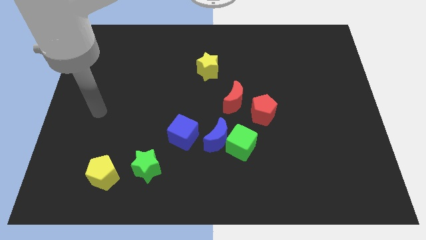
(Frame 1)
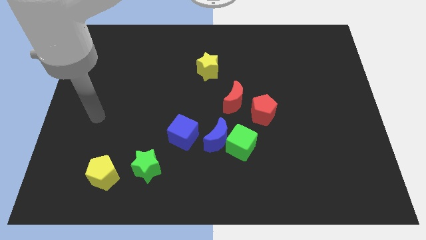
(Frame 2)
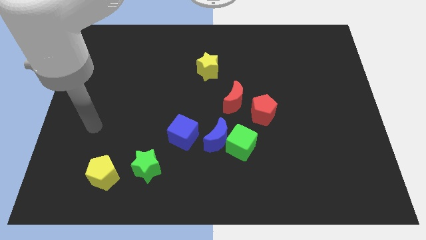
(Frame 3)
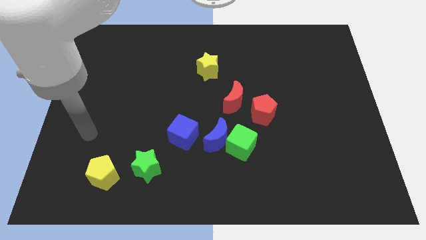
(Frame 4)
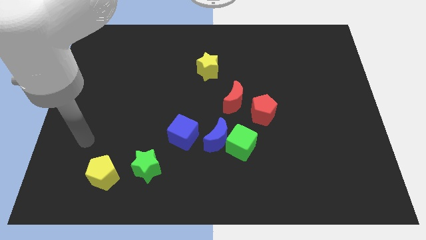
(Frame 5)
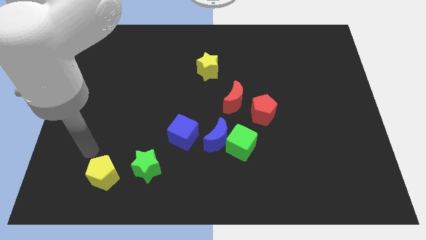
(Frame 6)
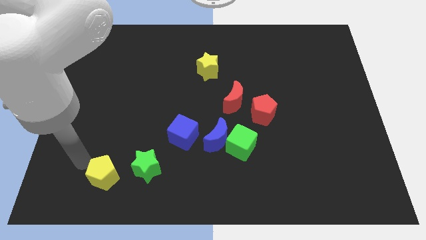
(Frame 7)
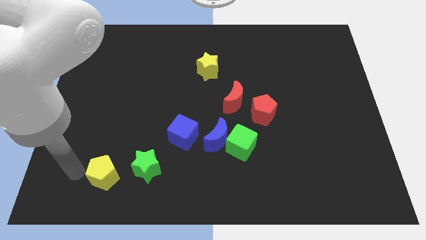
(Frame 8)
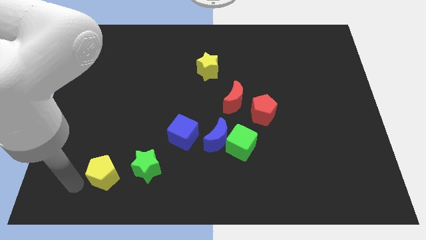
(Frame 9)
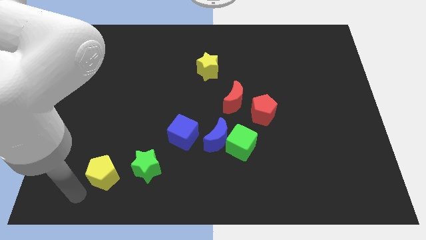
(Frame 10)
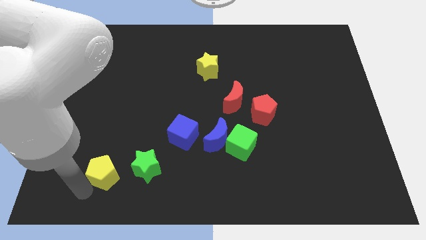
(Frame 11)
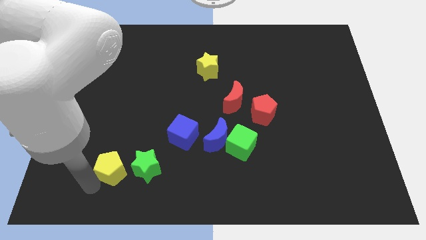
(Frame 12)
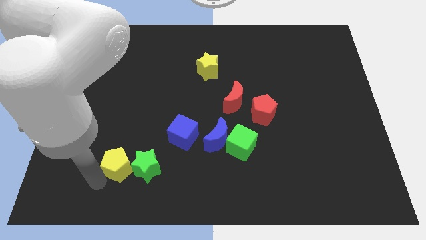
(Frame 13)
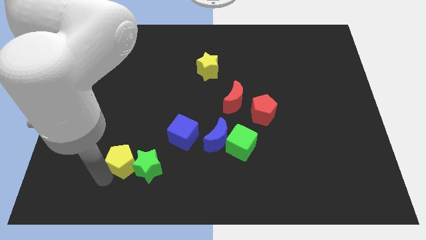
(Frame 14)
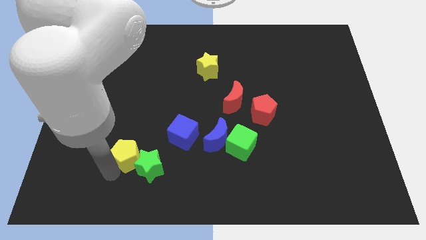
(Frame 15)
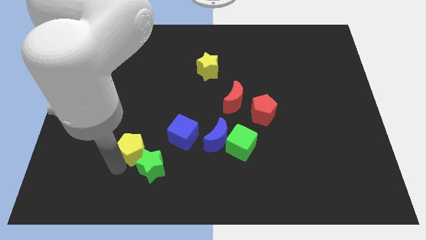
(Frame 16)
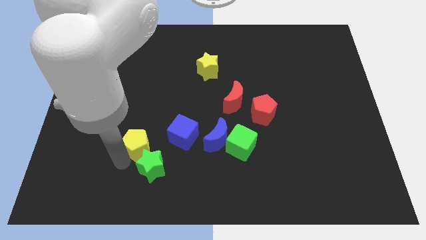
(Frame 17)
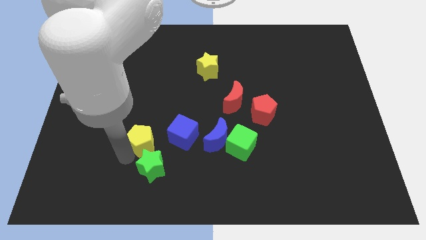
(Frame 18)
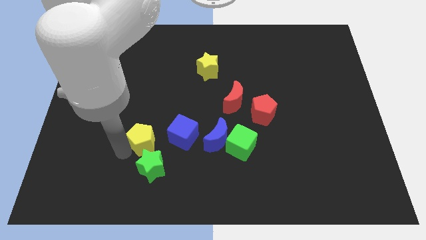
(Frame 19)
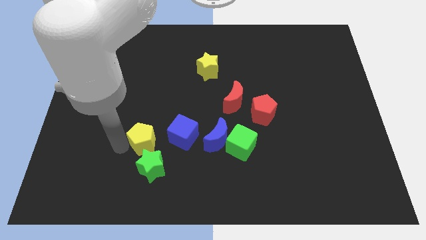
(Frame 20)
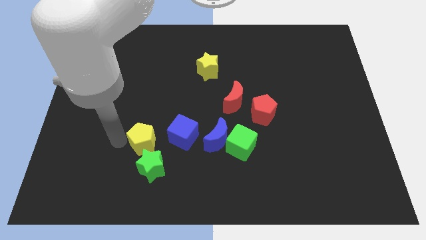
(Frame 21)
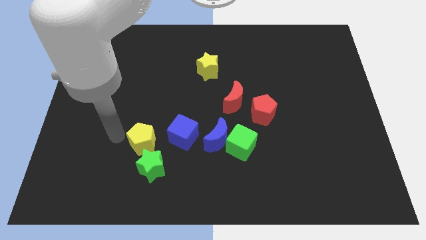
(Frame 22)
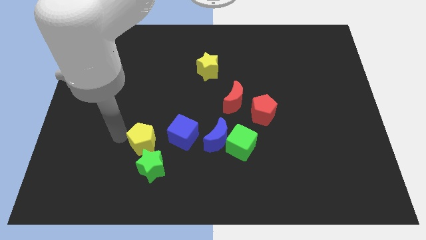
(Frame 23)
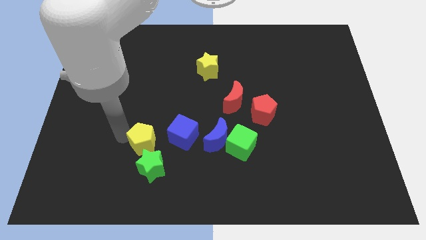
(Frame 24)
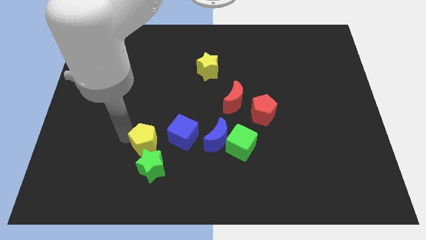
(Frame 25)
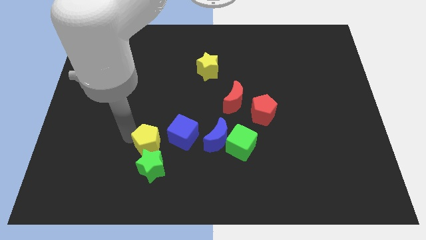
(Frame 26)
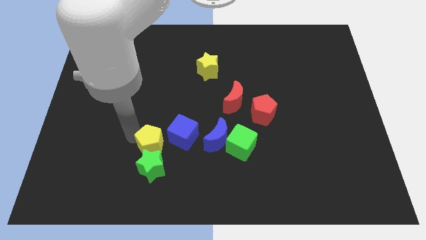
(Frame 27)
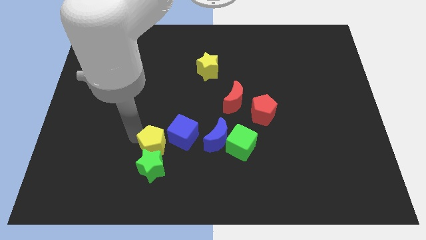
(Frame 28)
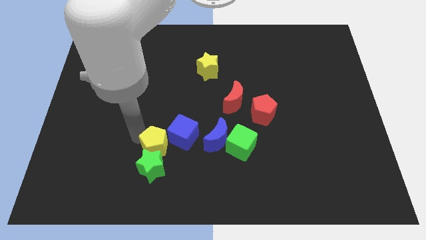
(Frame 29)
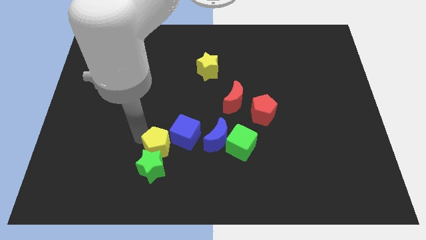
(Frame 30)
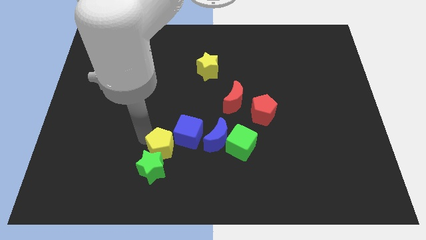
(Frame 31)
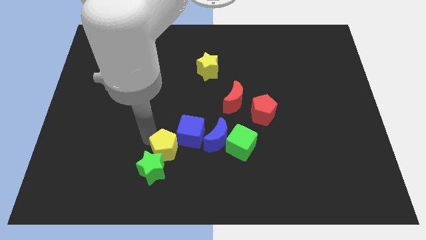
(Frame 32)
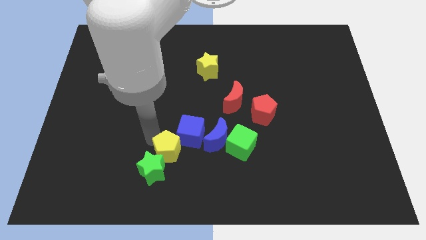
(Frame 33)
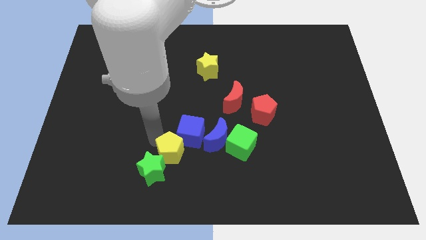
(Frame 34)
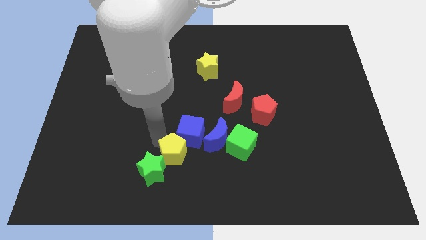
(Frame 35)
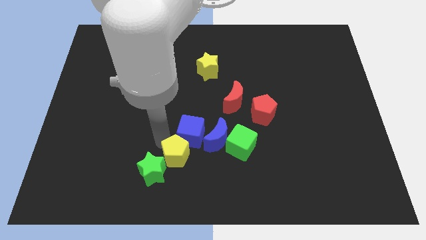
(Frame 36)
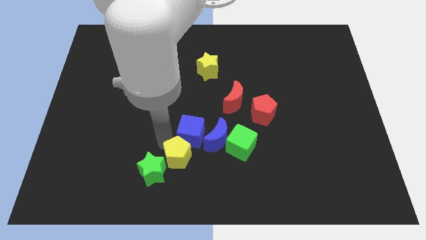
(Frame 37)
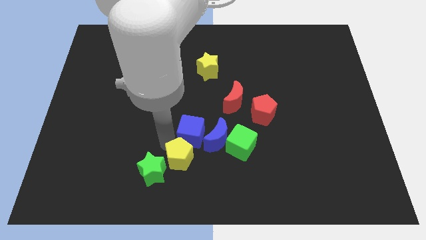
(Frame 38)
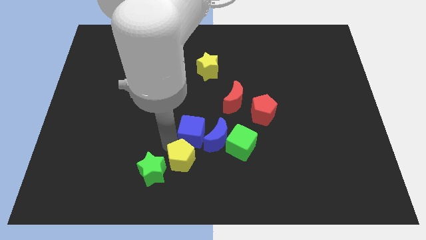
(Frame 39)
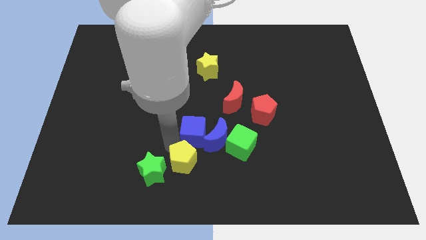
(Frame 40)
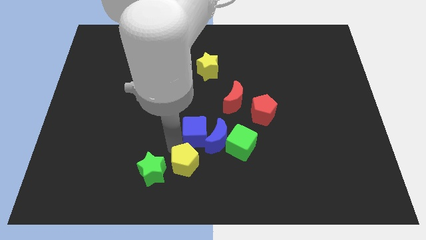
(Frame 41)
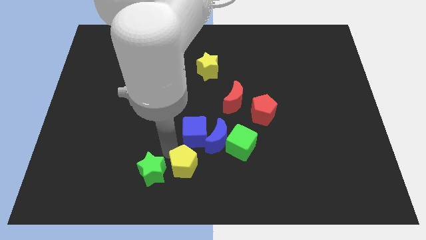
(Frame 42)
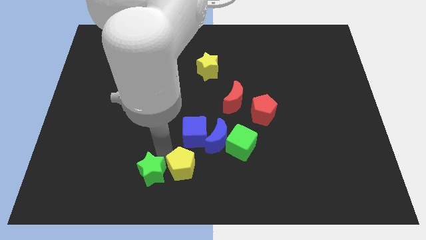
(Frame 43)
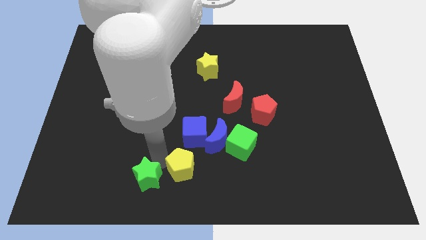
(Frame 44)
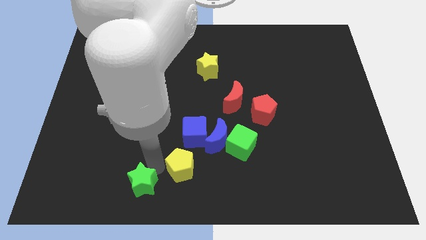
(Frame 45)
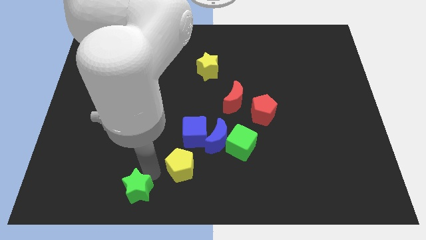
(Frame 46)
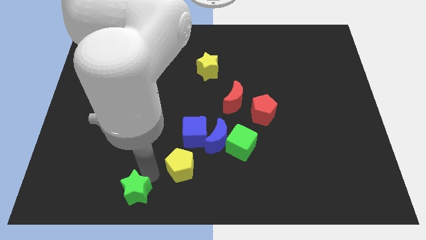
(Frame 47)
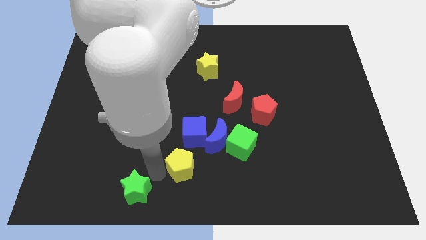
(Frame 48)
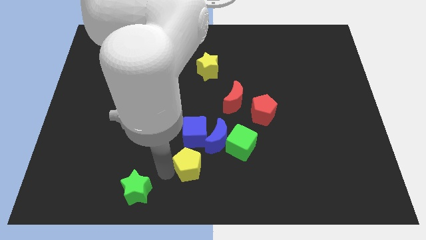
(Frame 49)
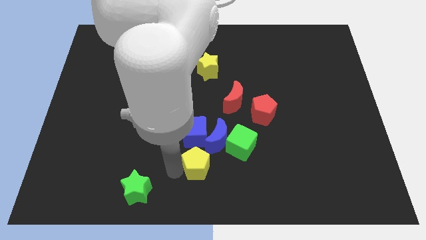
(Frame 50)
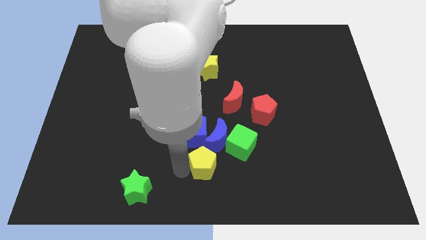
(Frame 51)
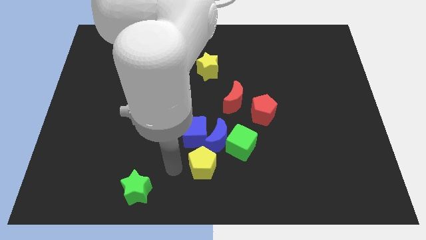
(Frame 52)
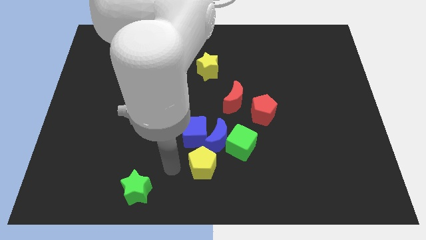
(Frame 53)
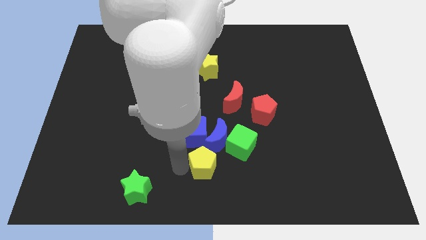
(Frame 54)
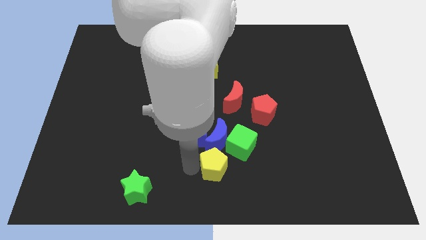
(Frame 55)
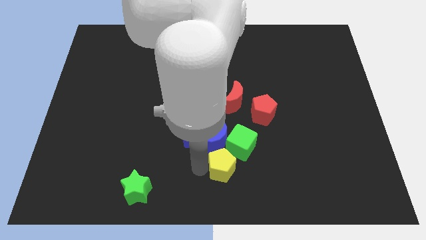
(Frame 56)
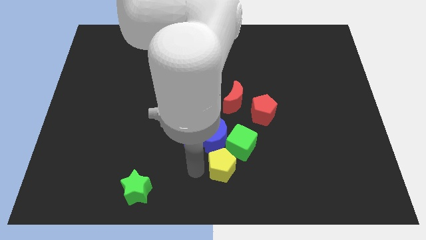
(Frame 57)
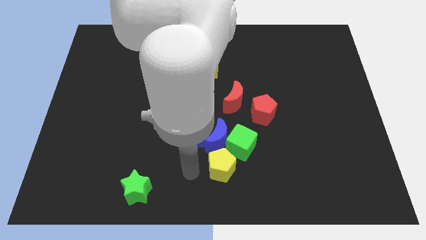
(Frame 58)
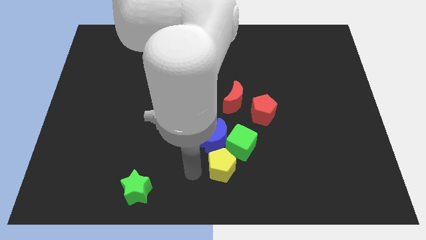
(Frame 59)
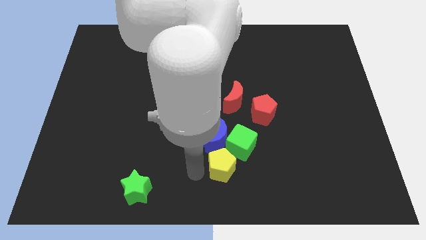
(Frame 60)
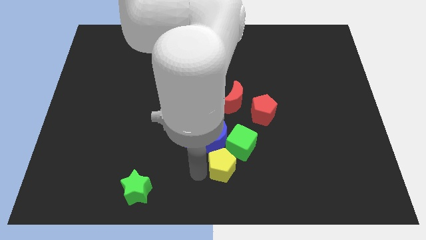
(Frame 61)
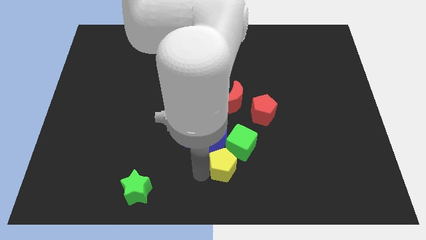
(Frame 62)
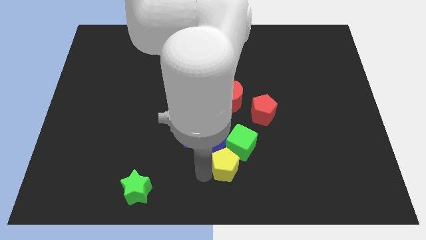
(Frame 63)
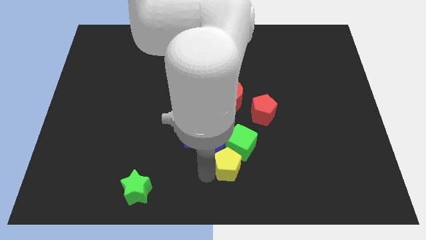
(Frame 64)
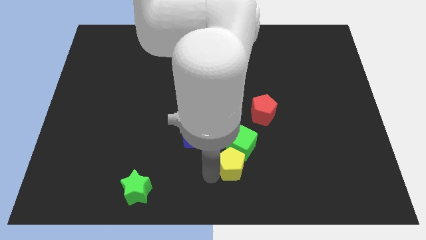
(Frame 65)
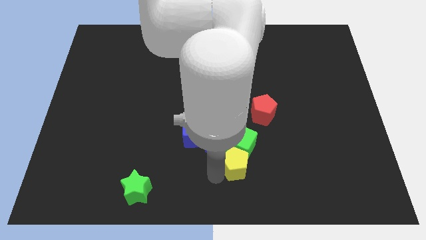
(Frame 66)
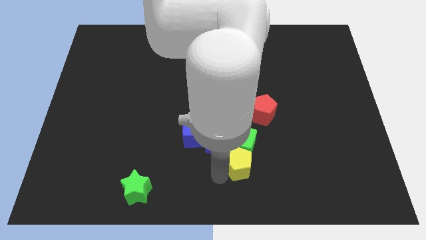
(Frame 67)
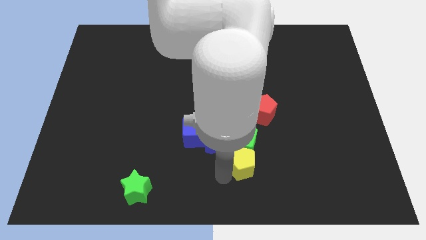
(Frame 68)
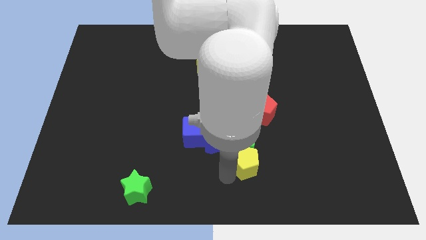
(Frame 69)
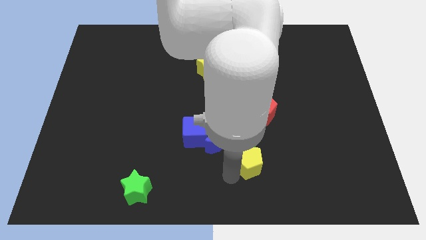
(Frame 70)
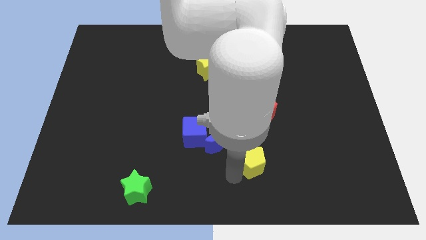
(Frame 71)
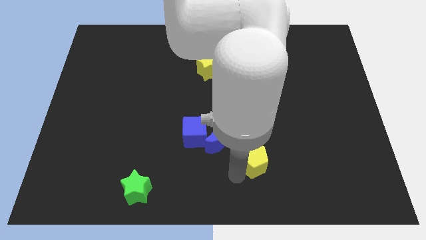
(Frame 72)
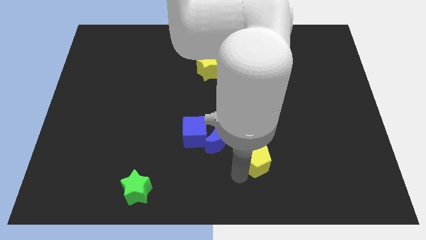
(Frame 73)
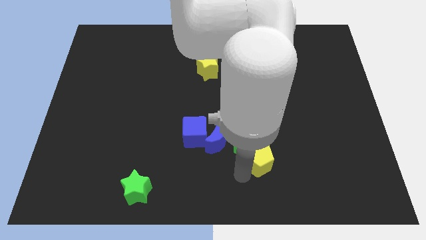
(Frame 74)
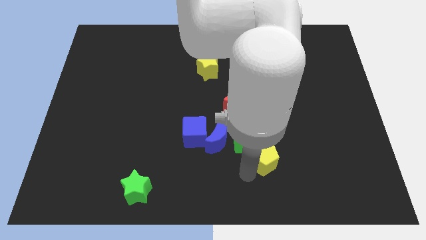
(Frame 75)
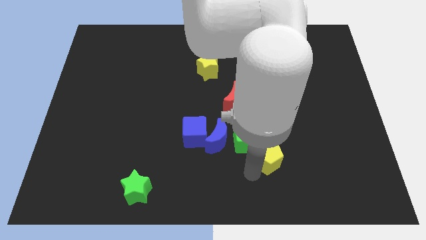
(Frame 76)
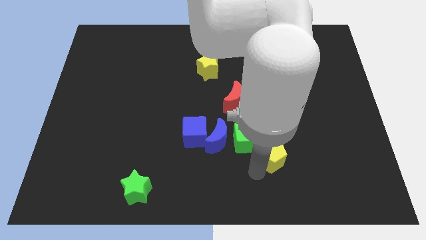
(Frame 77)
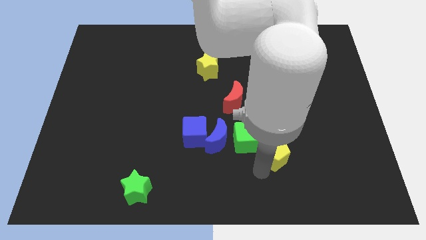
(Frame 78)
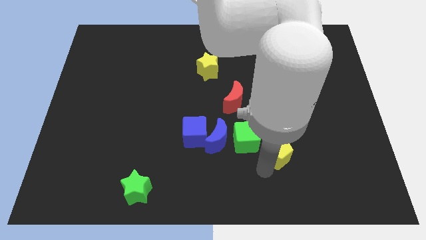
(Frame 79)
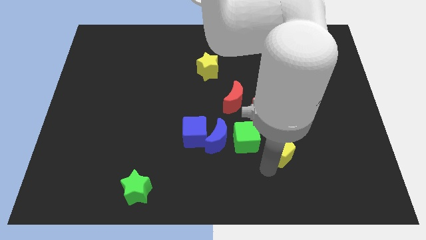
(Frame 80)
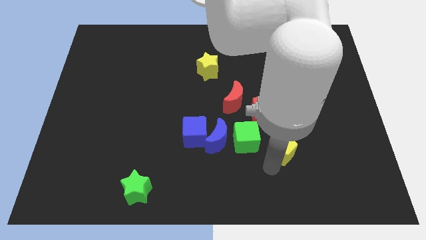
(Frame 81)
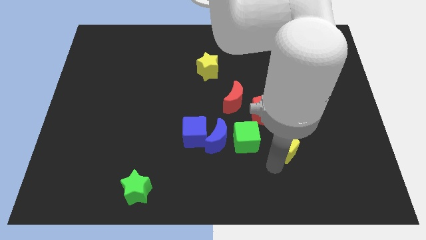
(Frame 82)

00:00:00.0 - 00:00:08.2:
push the yellow pentagon to the bottom right of the red pentagon
